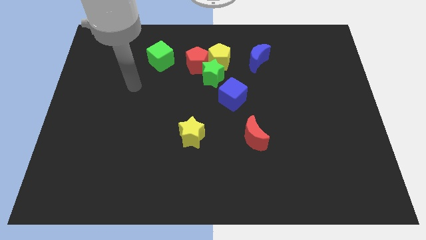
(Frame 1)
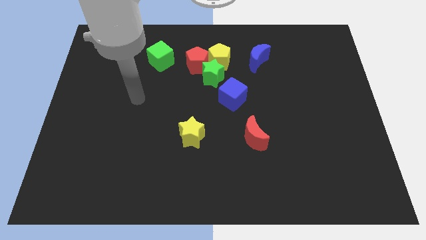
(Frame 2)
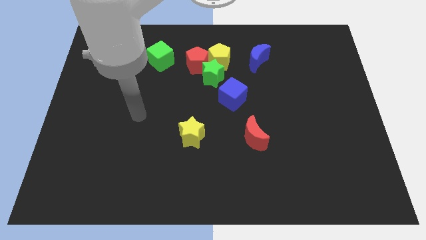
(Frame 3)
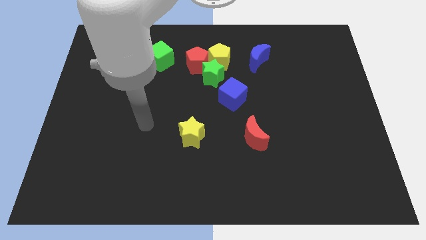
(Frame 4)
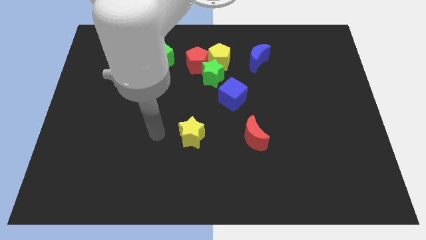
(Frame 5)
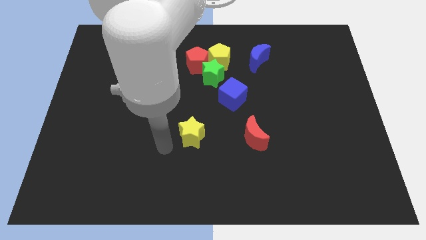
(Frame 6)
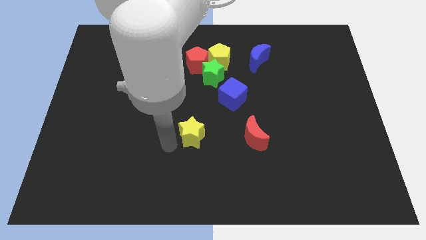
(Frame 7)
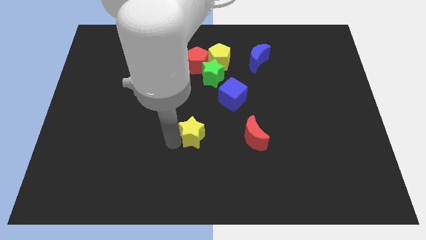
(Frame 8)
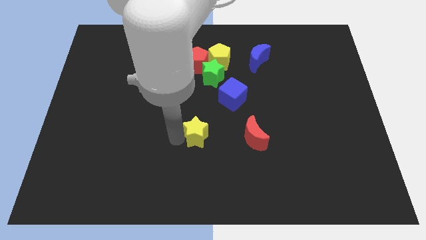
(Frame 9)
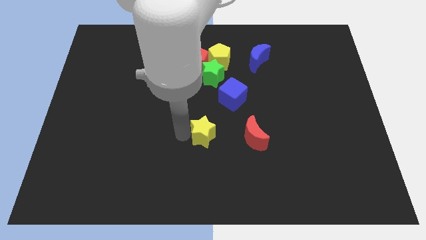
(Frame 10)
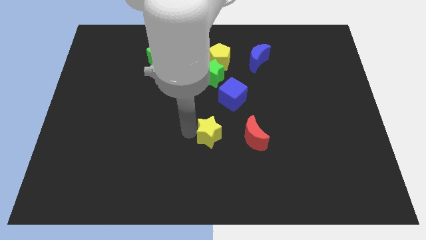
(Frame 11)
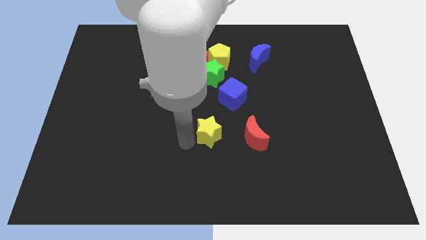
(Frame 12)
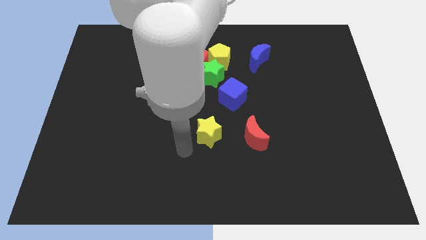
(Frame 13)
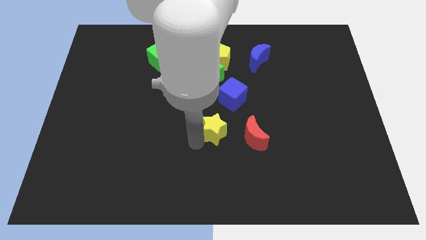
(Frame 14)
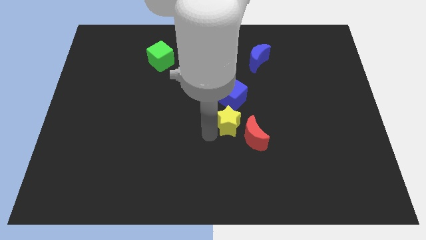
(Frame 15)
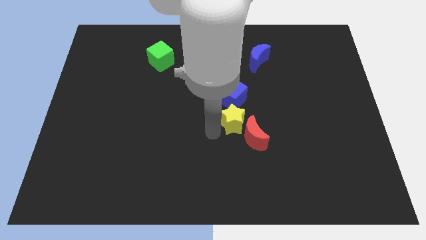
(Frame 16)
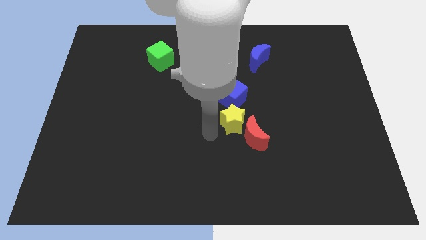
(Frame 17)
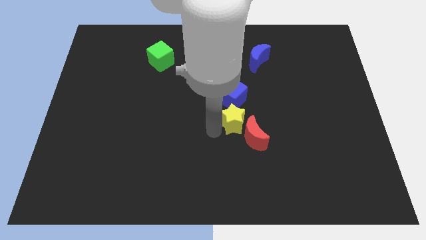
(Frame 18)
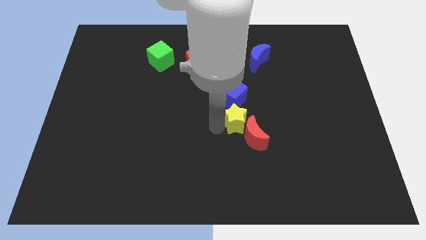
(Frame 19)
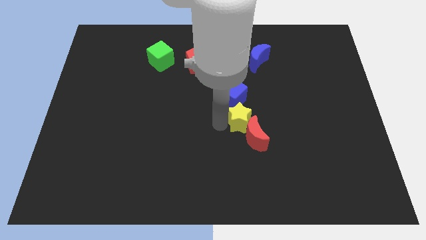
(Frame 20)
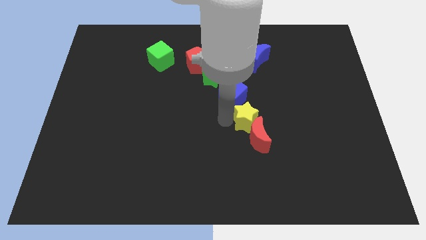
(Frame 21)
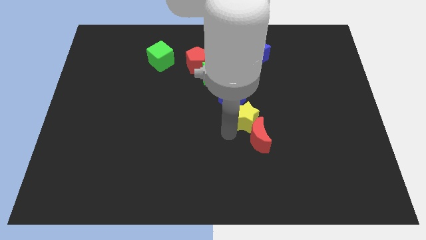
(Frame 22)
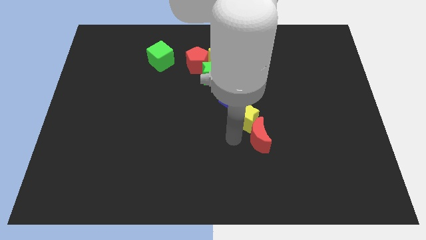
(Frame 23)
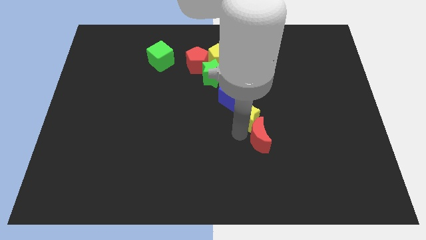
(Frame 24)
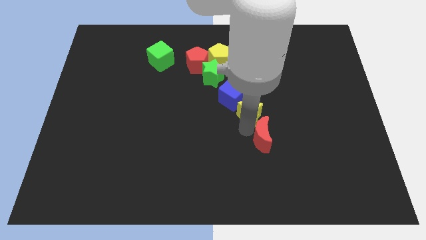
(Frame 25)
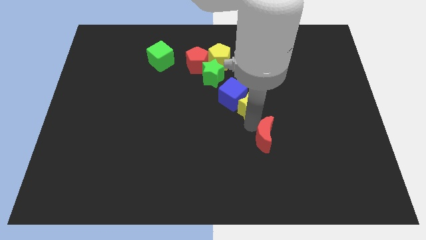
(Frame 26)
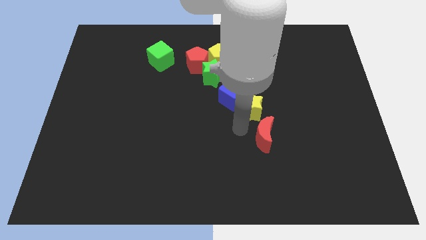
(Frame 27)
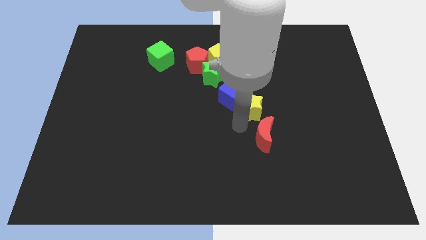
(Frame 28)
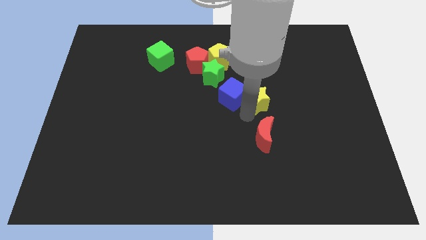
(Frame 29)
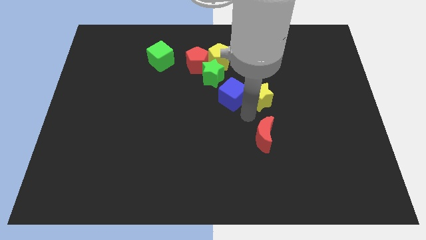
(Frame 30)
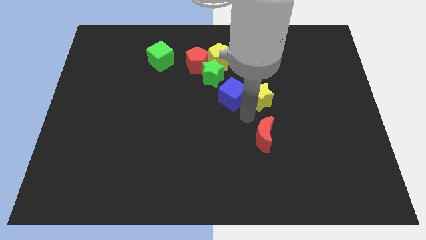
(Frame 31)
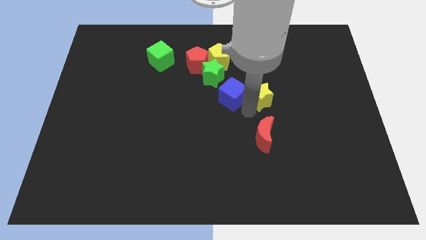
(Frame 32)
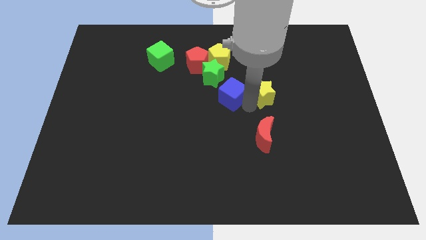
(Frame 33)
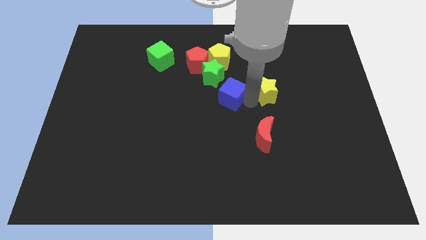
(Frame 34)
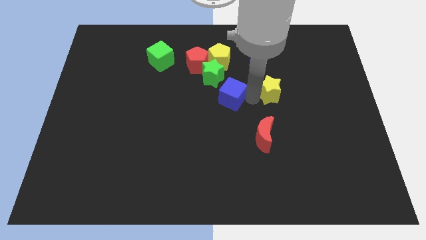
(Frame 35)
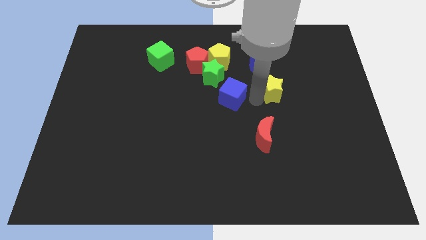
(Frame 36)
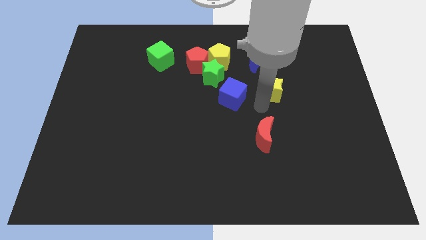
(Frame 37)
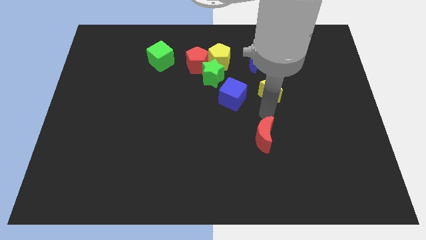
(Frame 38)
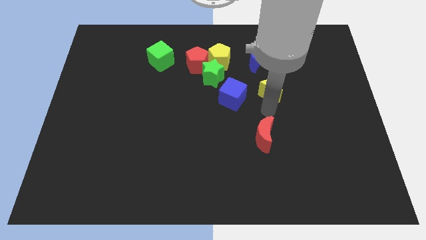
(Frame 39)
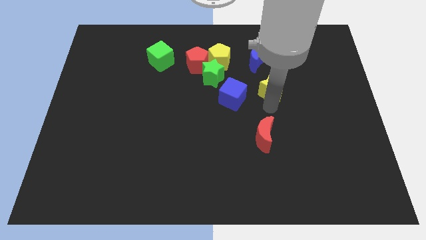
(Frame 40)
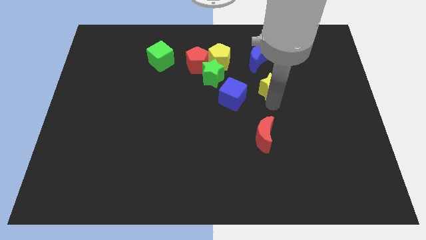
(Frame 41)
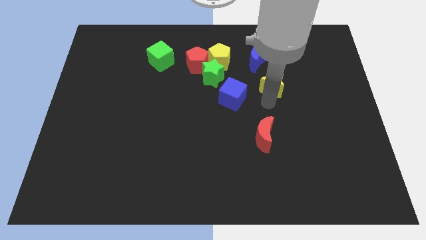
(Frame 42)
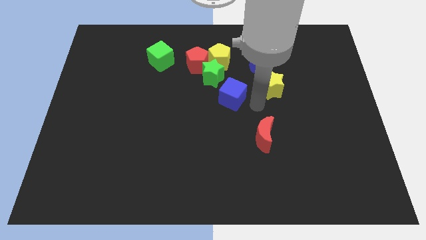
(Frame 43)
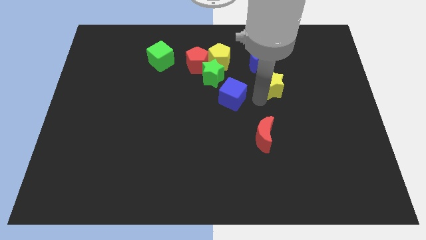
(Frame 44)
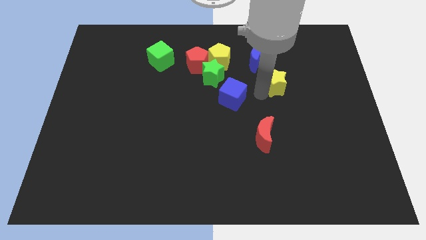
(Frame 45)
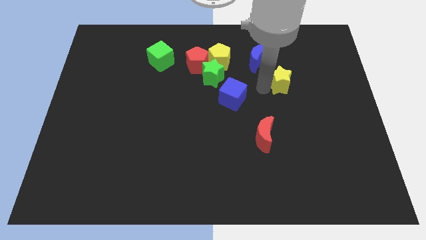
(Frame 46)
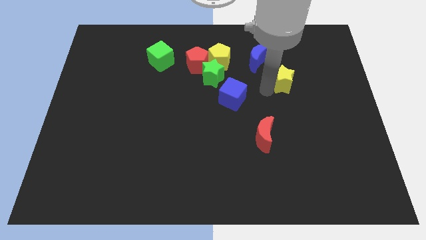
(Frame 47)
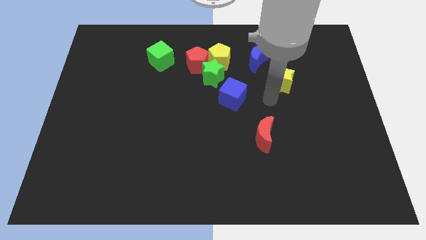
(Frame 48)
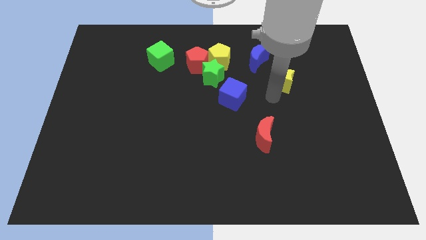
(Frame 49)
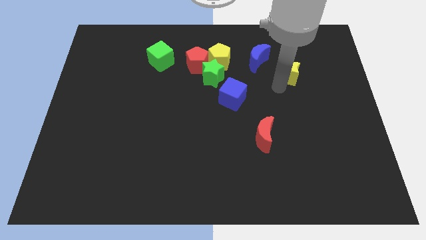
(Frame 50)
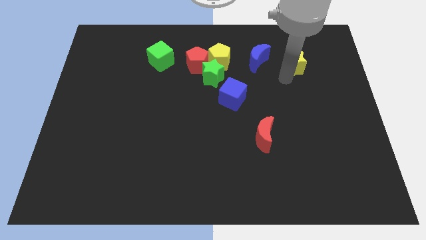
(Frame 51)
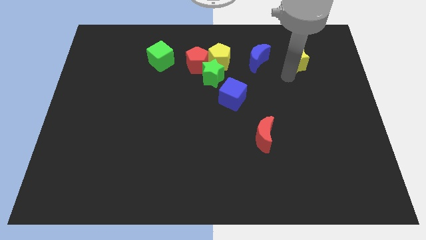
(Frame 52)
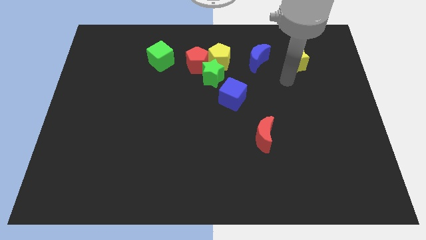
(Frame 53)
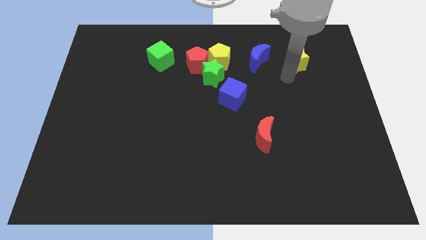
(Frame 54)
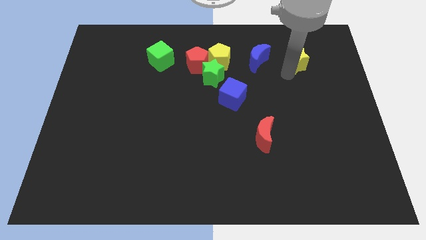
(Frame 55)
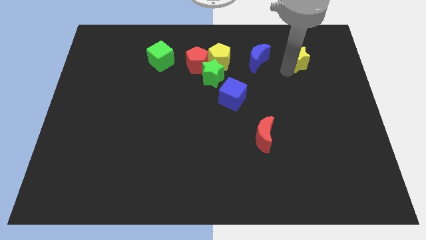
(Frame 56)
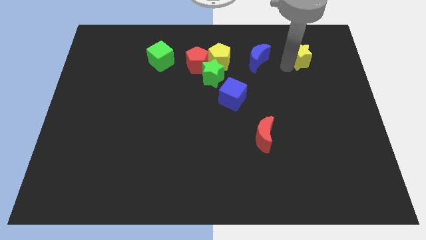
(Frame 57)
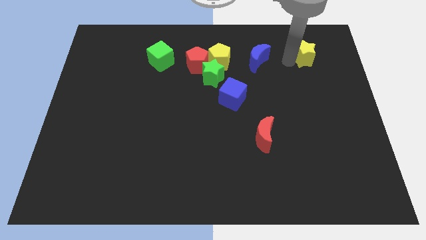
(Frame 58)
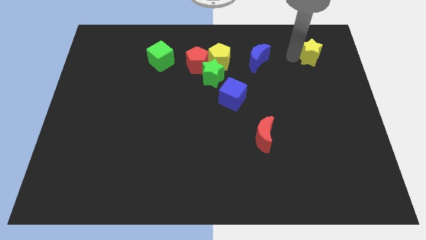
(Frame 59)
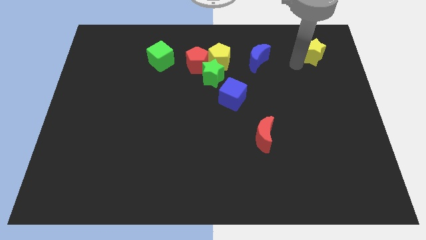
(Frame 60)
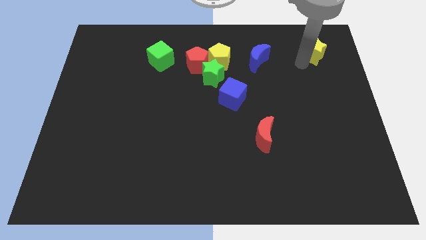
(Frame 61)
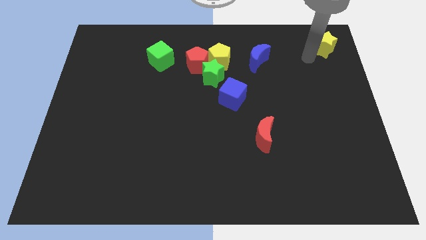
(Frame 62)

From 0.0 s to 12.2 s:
move the yellow star to the top right of the board

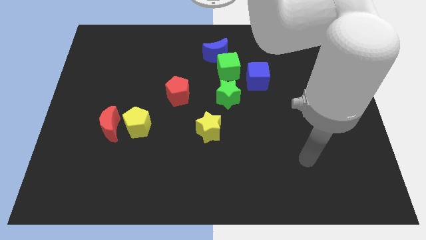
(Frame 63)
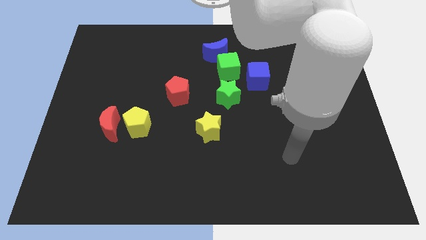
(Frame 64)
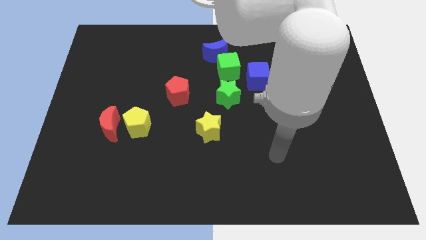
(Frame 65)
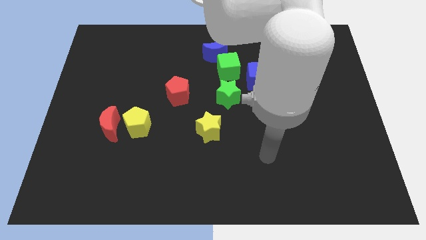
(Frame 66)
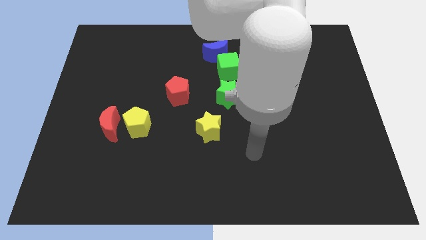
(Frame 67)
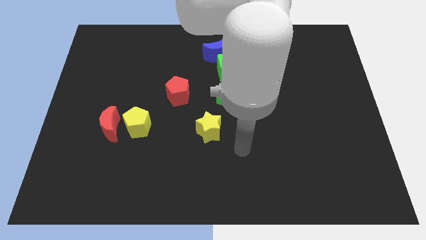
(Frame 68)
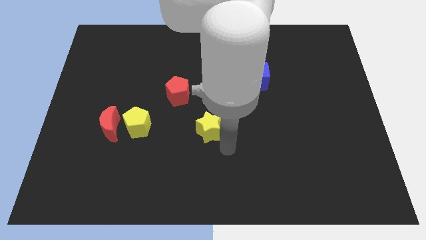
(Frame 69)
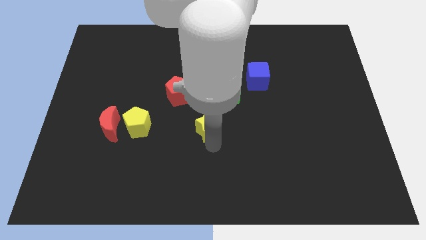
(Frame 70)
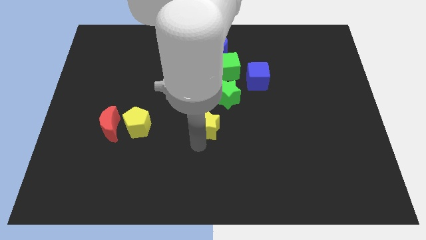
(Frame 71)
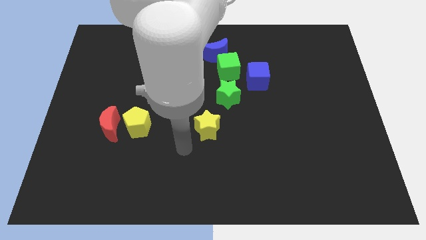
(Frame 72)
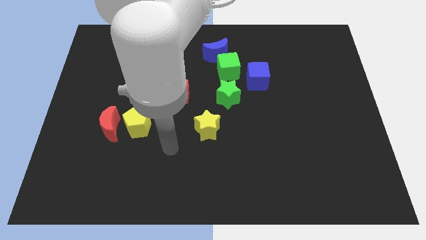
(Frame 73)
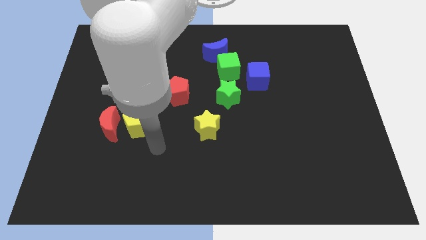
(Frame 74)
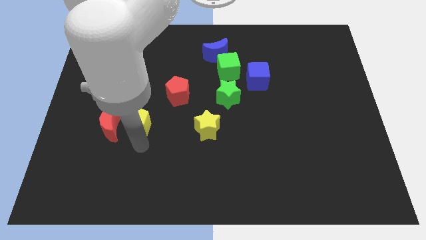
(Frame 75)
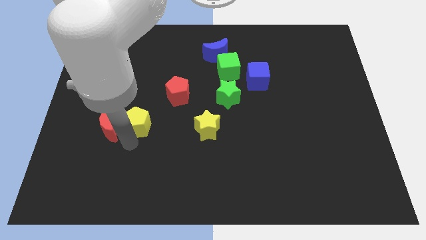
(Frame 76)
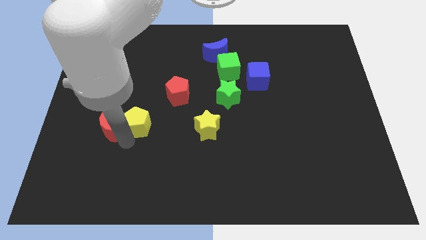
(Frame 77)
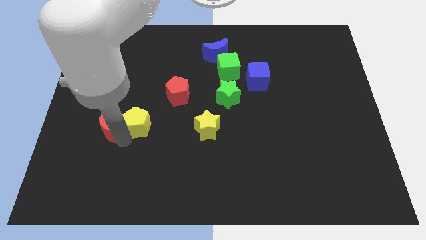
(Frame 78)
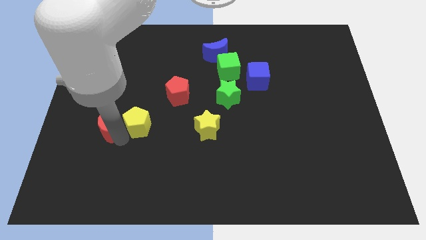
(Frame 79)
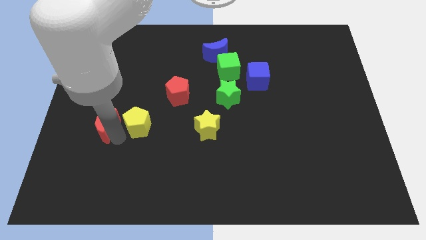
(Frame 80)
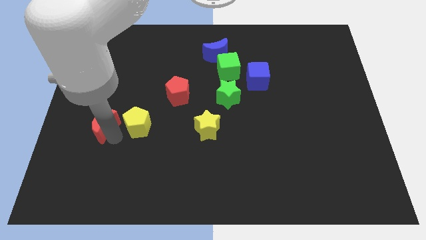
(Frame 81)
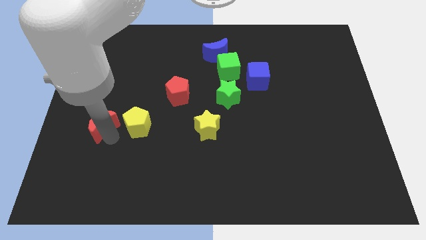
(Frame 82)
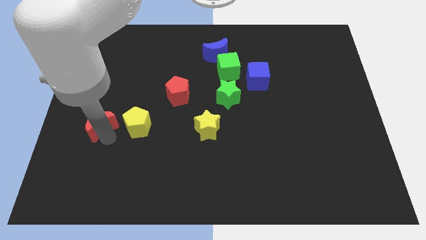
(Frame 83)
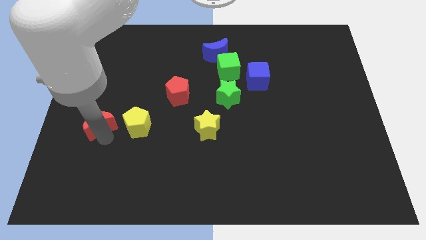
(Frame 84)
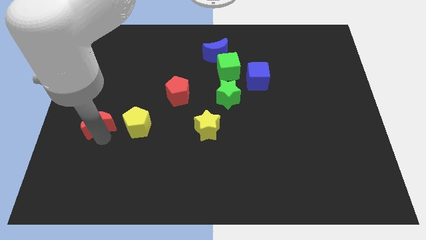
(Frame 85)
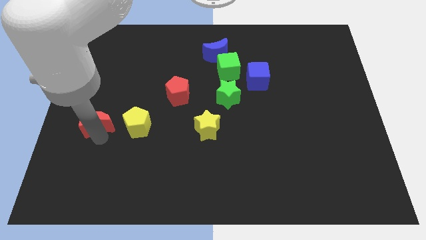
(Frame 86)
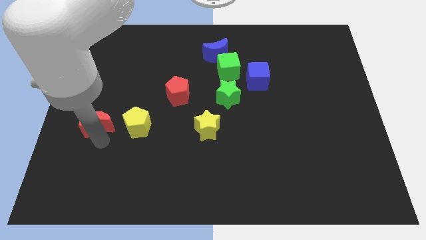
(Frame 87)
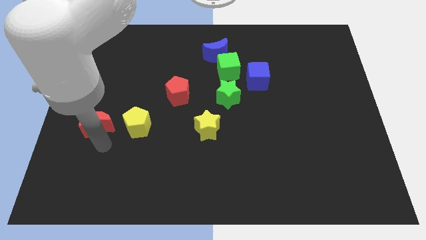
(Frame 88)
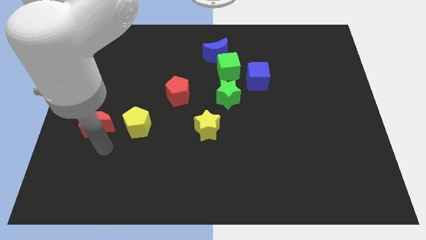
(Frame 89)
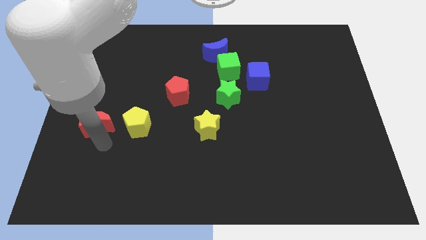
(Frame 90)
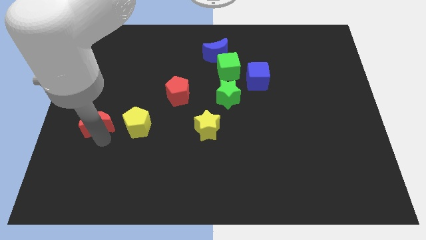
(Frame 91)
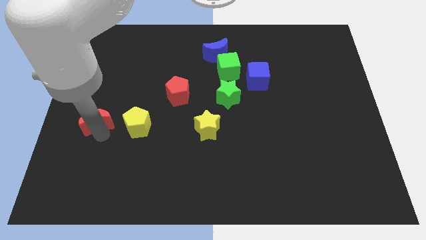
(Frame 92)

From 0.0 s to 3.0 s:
slide the red moon to the left side of the board
